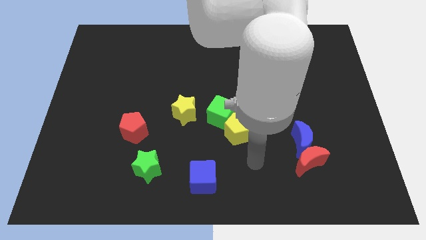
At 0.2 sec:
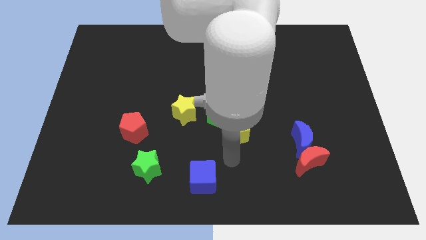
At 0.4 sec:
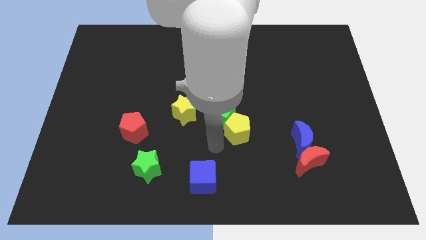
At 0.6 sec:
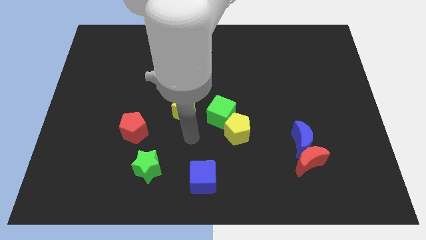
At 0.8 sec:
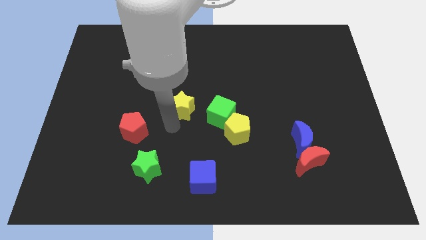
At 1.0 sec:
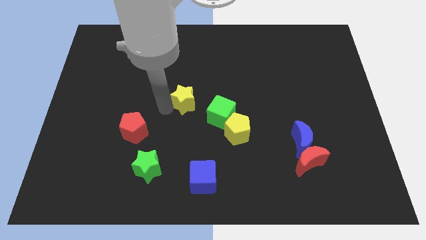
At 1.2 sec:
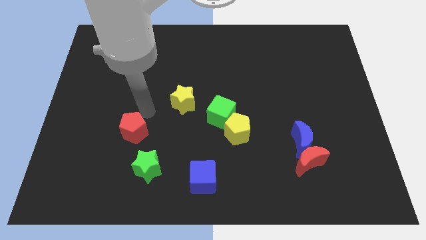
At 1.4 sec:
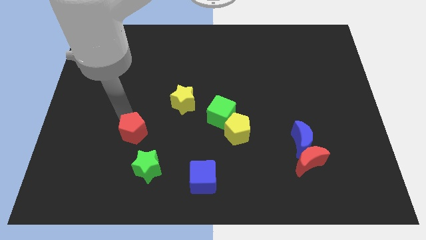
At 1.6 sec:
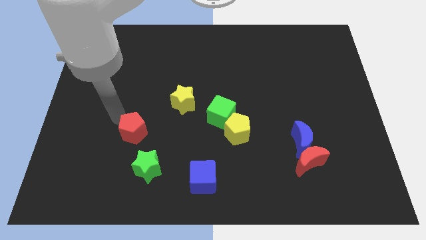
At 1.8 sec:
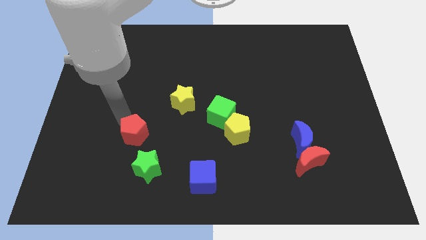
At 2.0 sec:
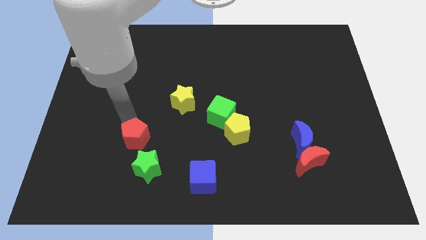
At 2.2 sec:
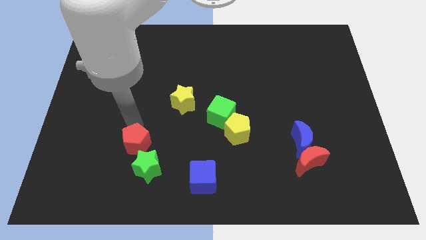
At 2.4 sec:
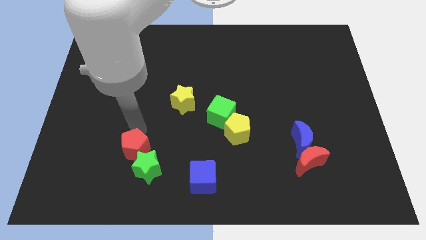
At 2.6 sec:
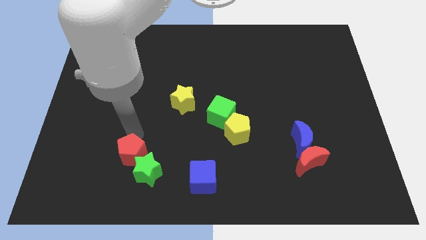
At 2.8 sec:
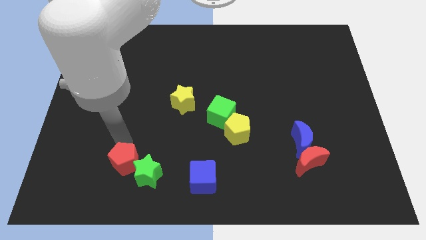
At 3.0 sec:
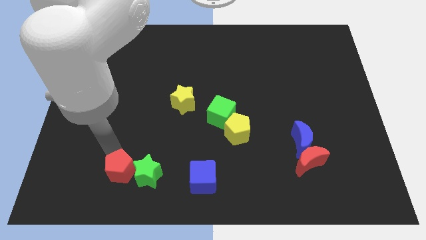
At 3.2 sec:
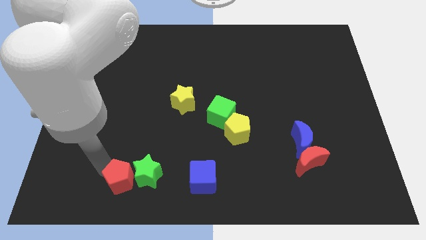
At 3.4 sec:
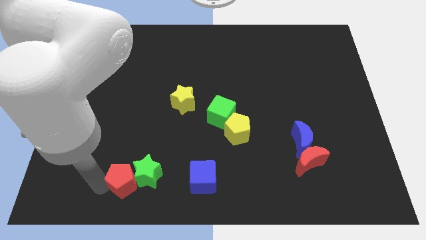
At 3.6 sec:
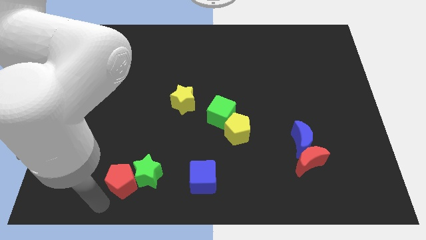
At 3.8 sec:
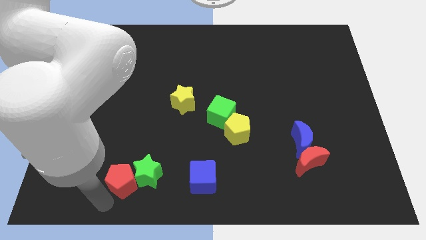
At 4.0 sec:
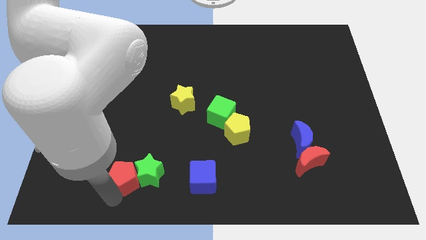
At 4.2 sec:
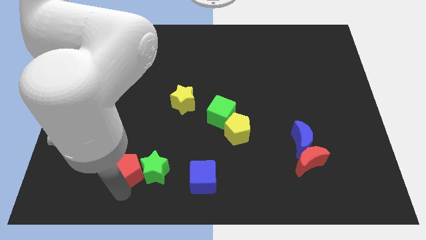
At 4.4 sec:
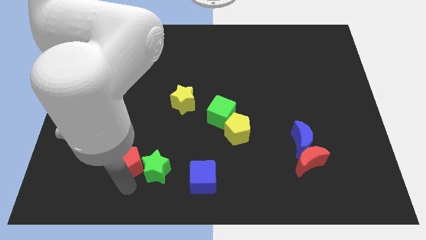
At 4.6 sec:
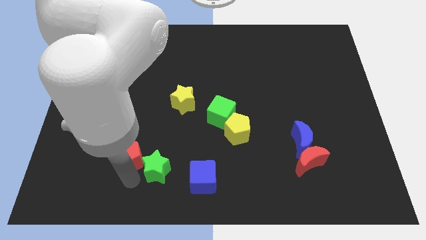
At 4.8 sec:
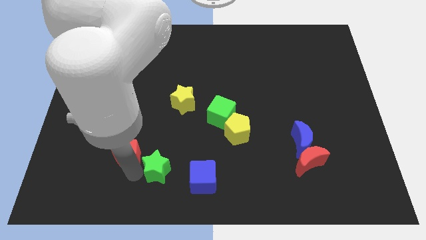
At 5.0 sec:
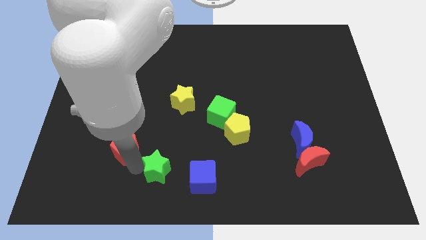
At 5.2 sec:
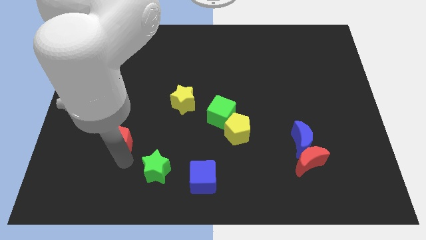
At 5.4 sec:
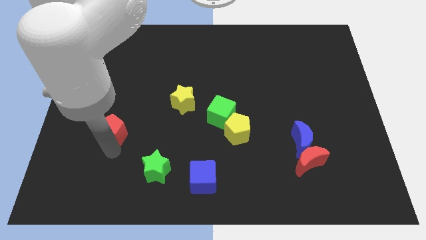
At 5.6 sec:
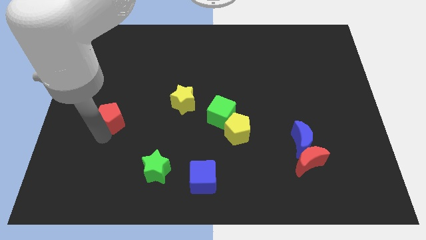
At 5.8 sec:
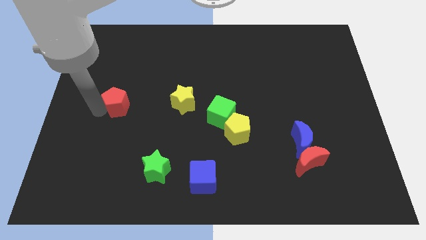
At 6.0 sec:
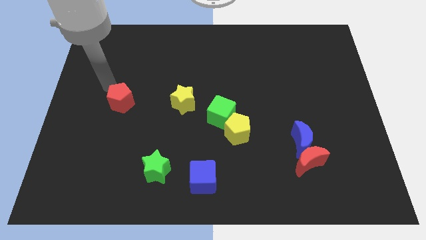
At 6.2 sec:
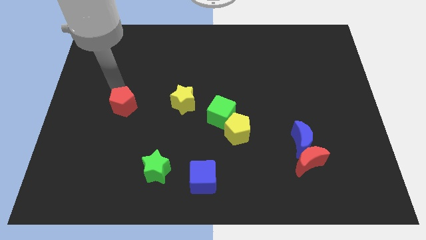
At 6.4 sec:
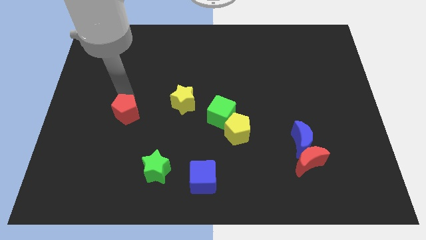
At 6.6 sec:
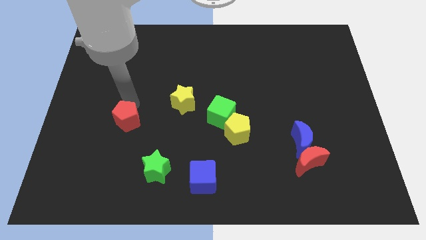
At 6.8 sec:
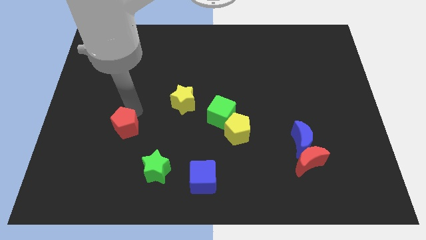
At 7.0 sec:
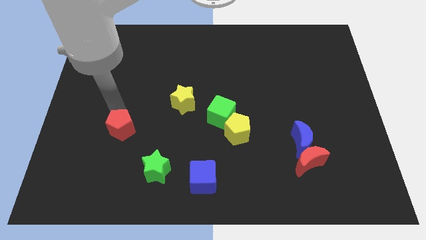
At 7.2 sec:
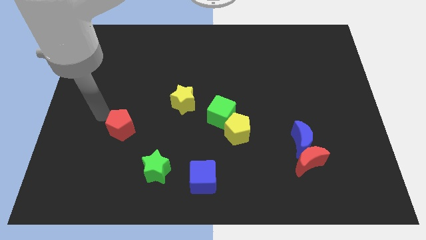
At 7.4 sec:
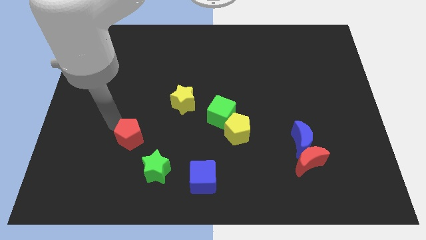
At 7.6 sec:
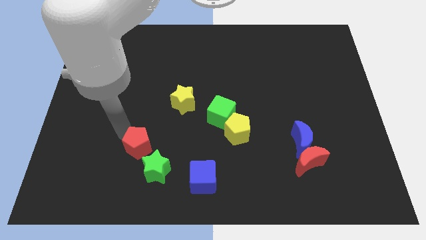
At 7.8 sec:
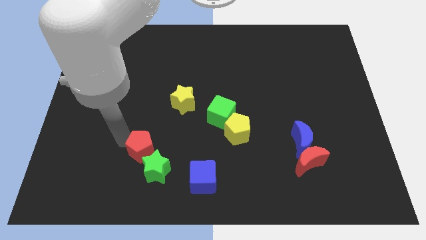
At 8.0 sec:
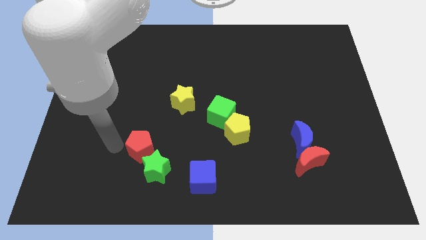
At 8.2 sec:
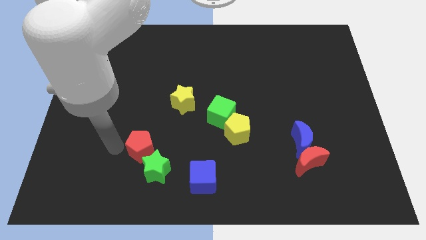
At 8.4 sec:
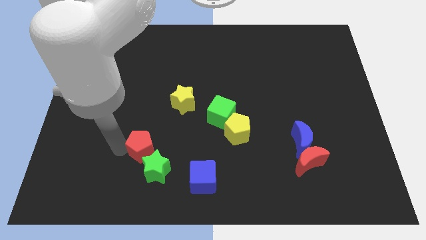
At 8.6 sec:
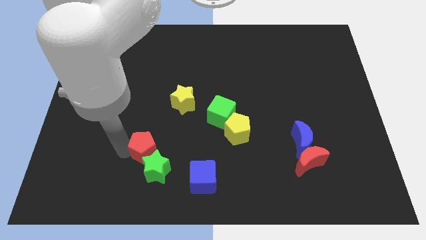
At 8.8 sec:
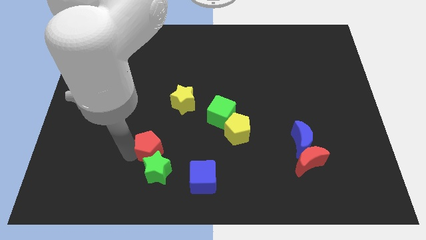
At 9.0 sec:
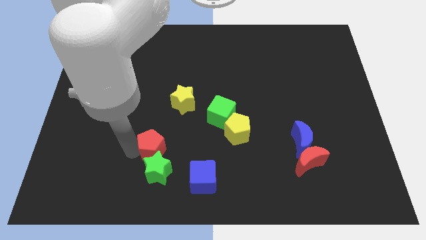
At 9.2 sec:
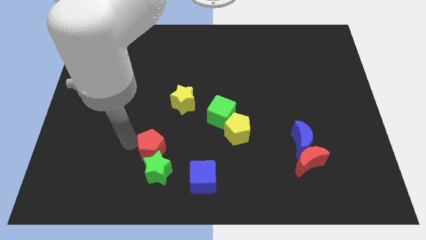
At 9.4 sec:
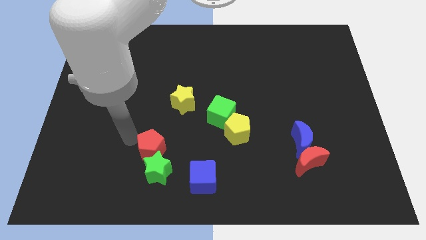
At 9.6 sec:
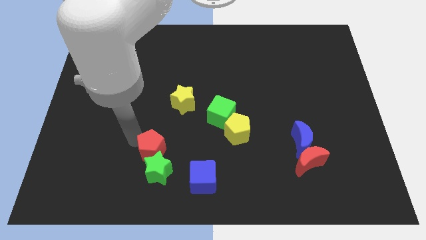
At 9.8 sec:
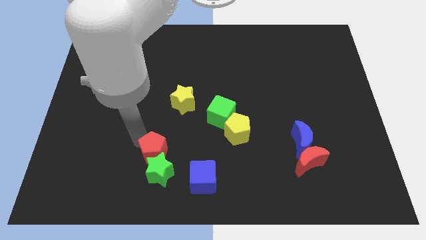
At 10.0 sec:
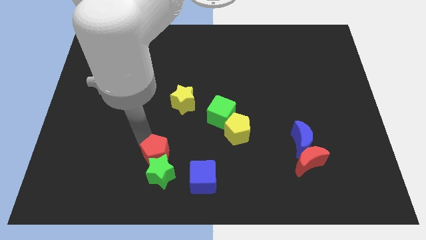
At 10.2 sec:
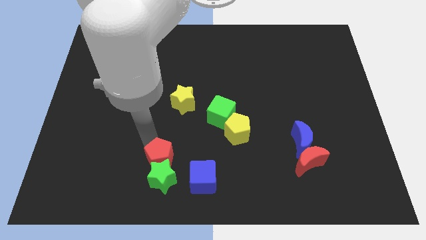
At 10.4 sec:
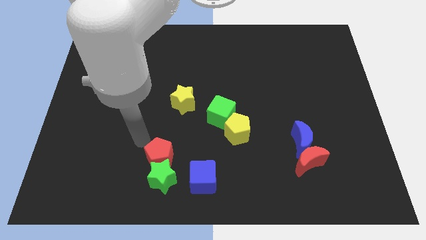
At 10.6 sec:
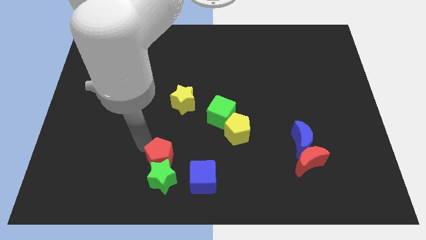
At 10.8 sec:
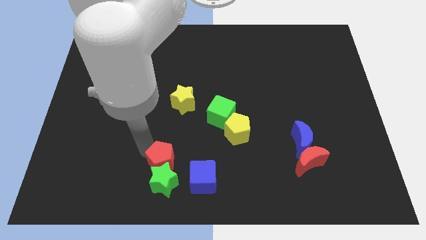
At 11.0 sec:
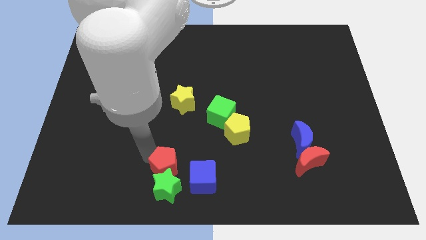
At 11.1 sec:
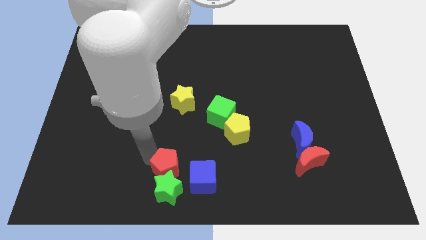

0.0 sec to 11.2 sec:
push the red pentagon to the bottom side
